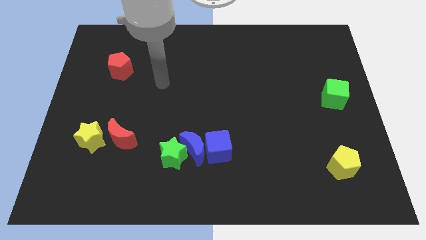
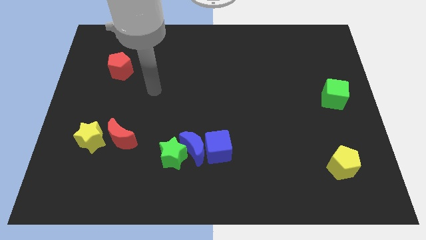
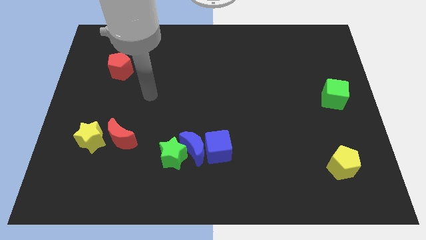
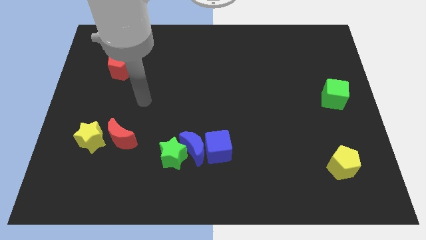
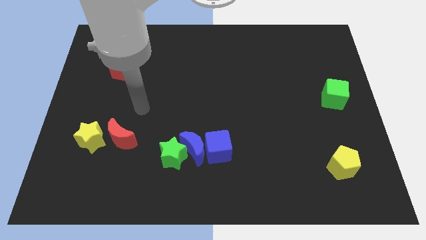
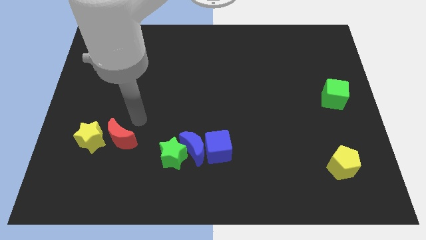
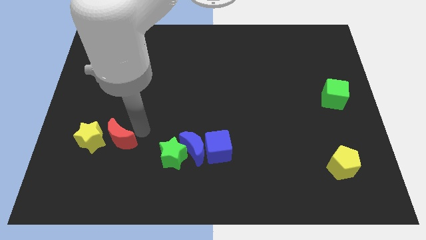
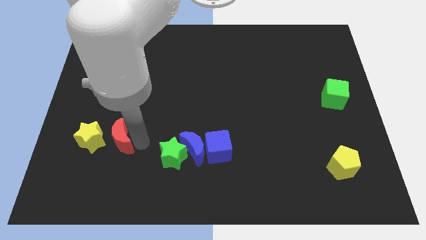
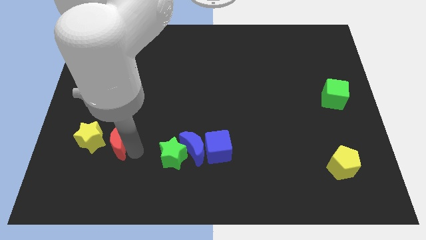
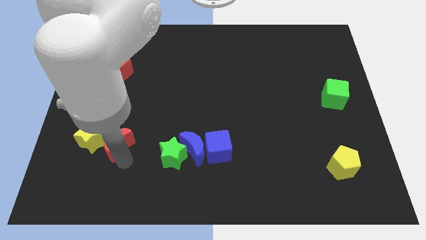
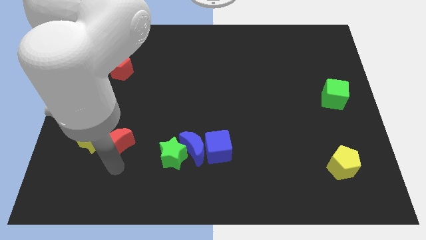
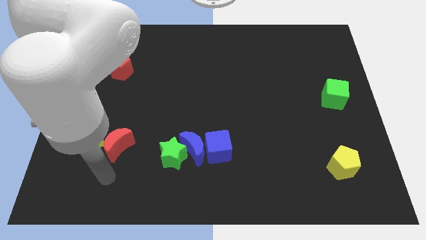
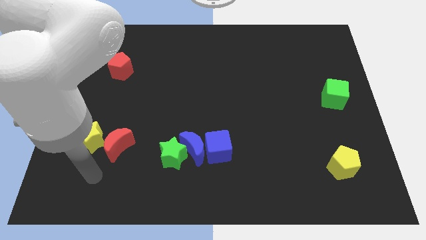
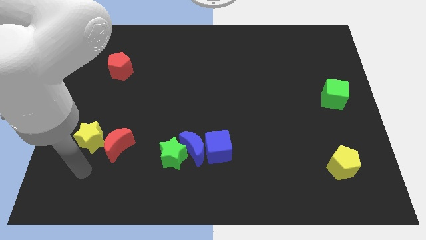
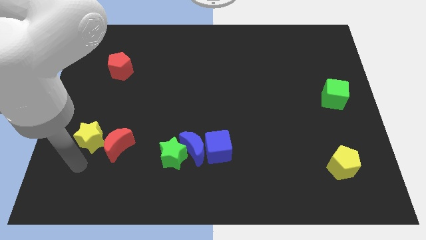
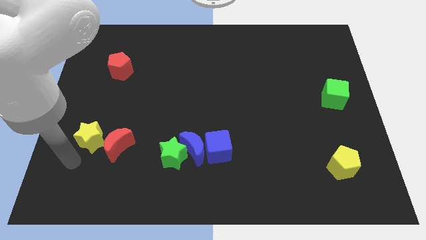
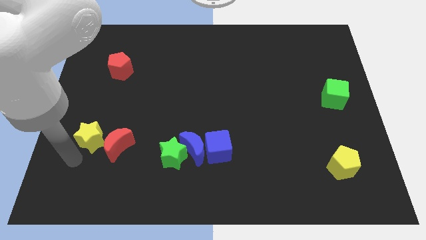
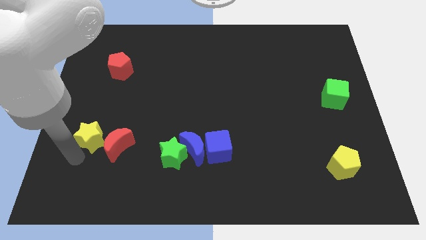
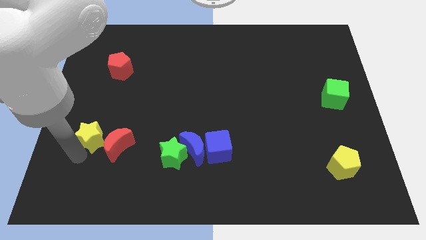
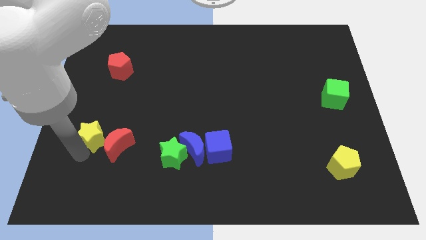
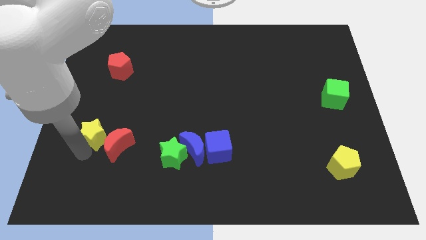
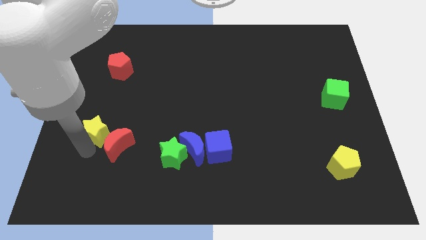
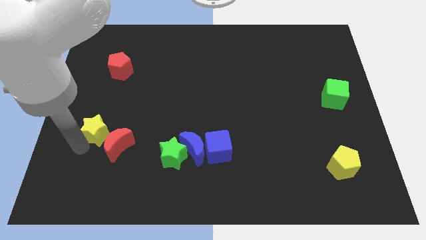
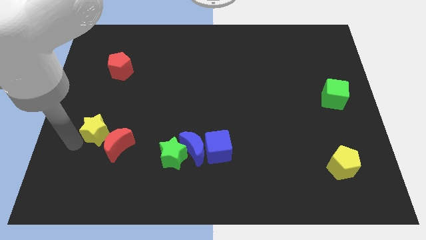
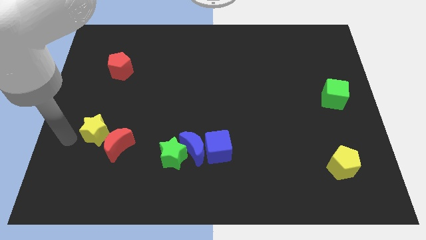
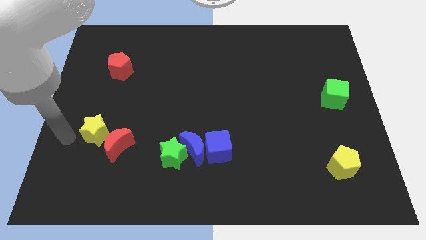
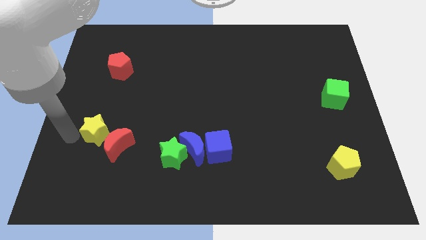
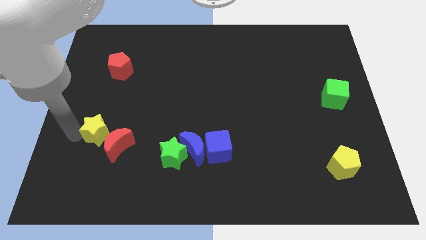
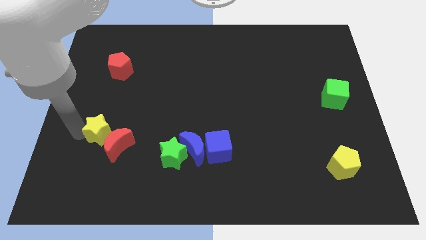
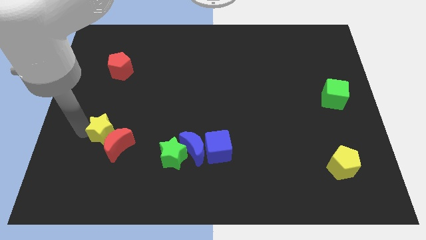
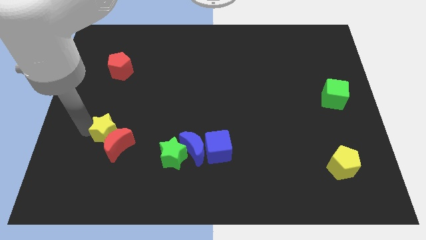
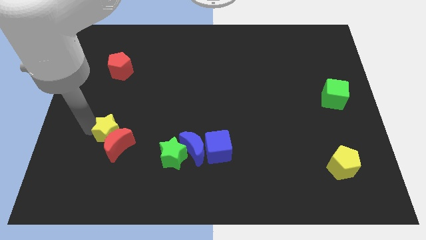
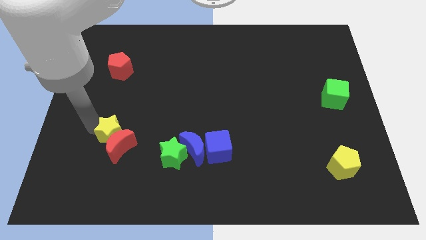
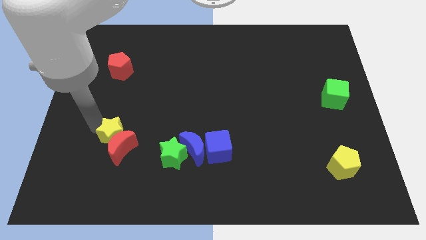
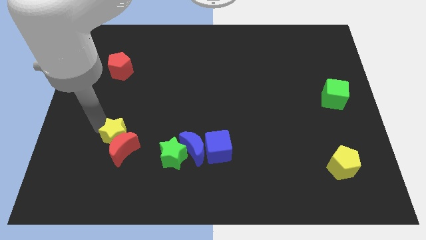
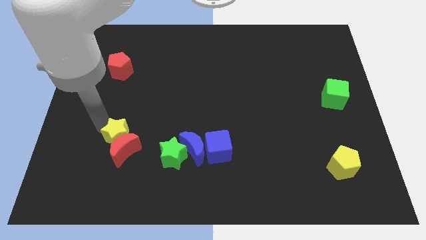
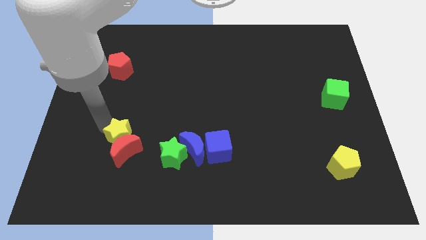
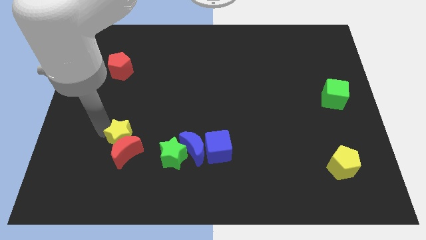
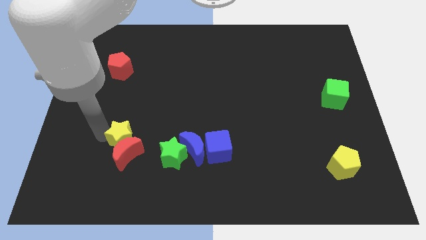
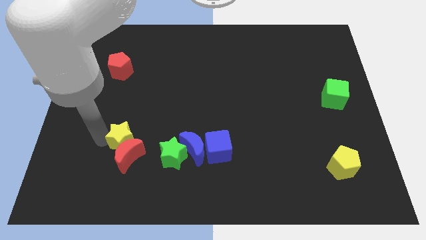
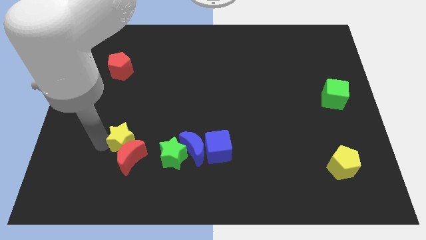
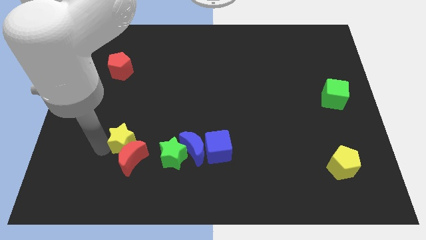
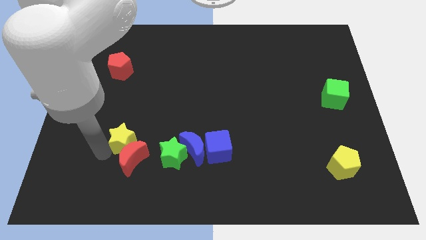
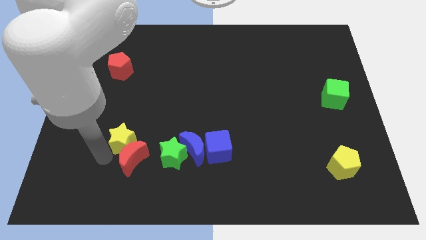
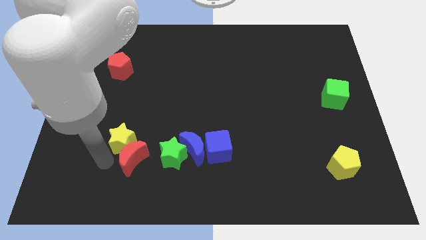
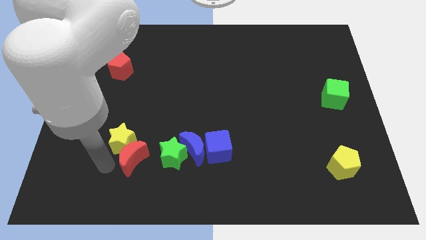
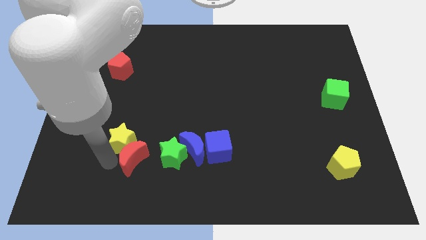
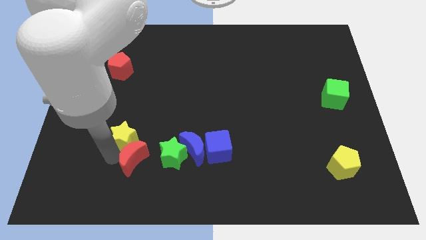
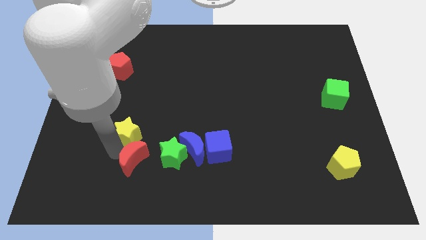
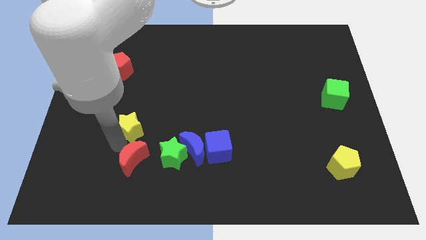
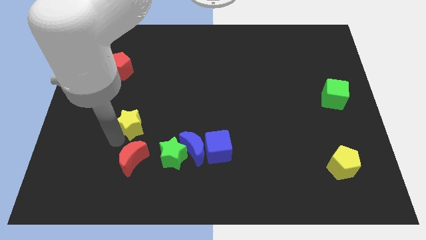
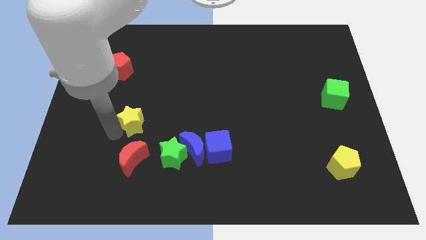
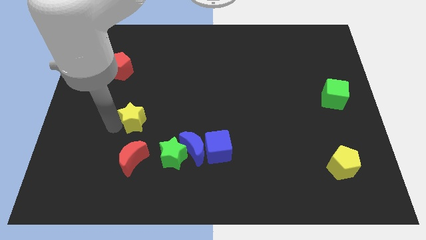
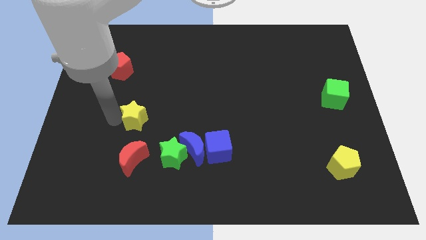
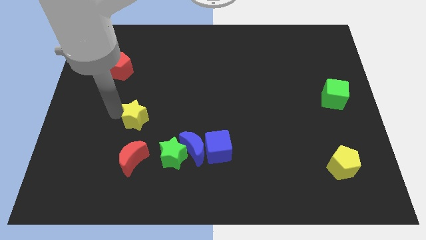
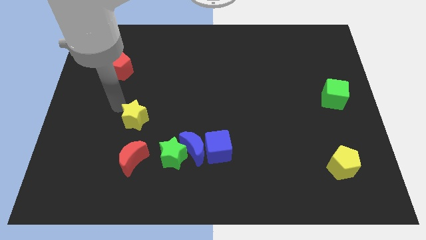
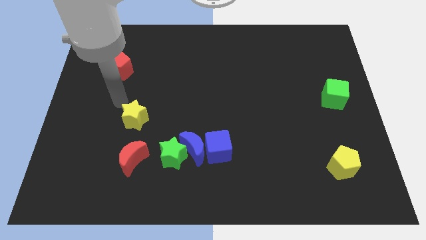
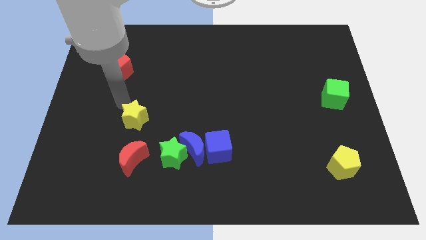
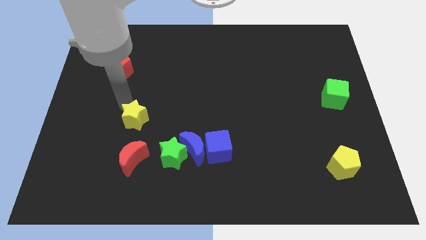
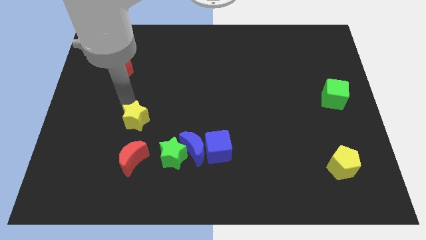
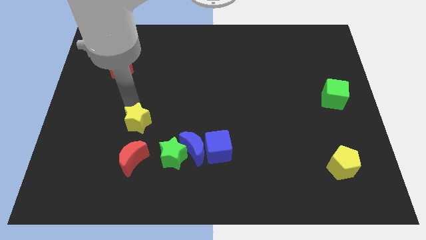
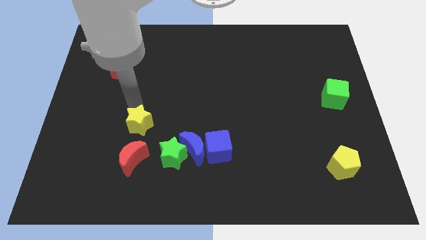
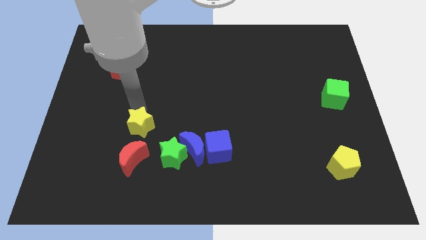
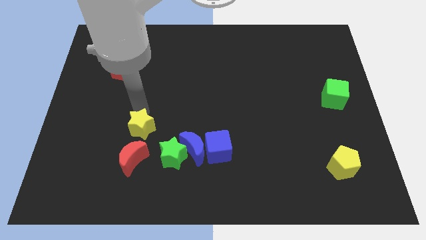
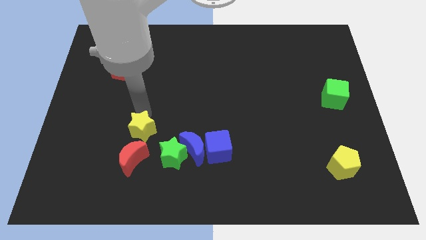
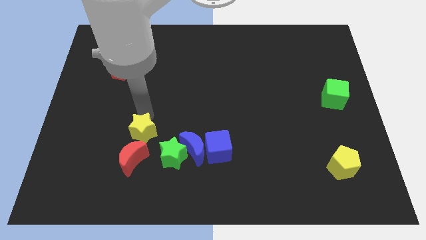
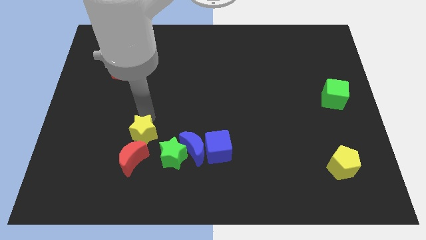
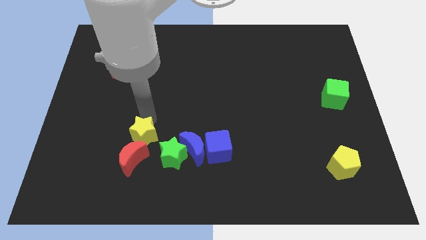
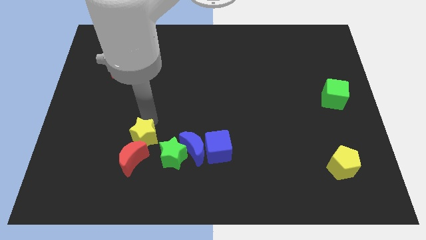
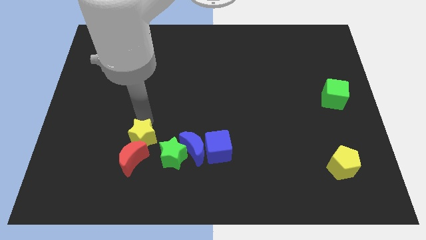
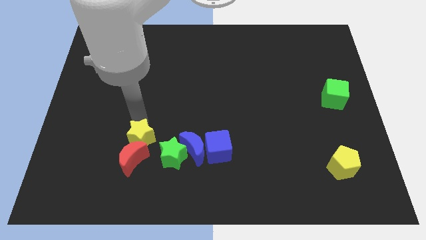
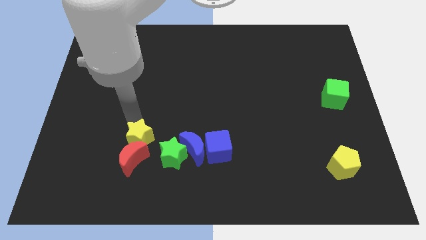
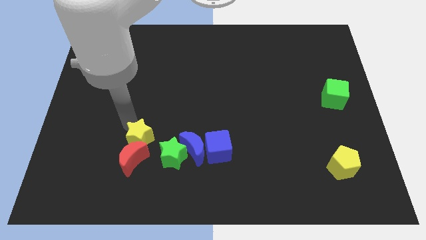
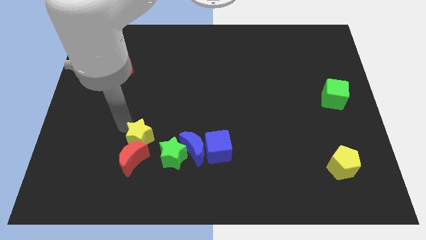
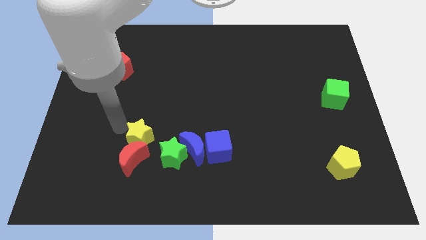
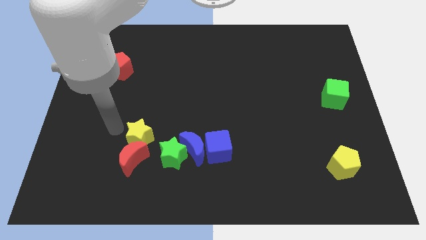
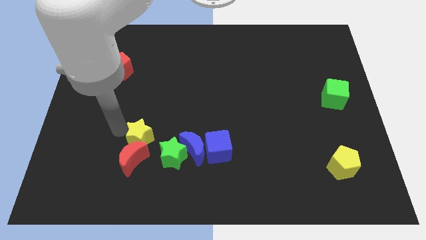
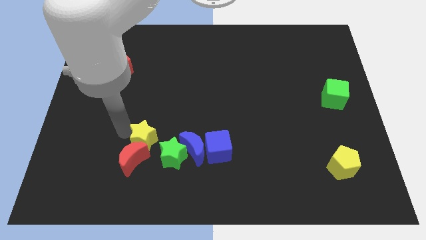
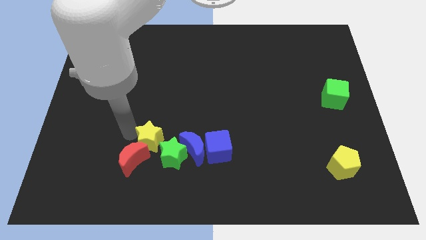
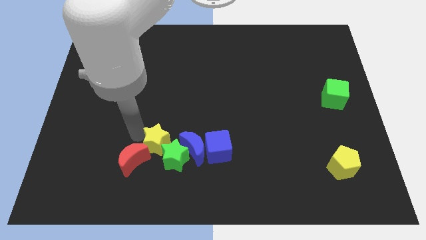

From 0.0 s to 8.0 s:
put the yellow star next to the green star
